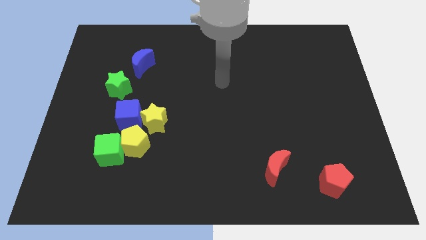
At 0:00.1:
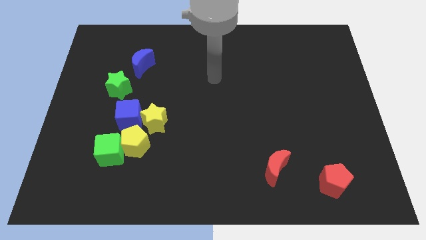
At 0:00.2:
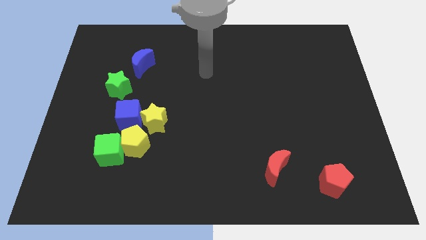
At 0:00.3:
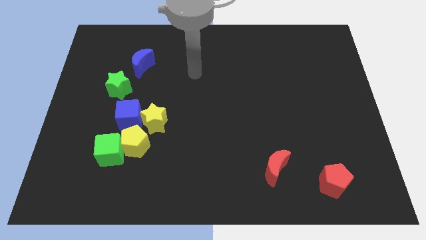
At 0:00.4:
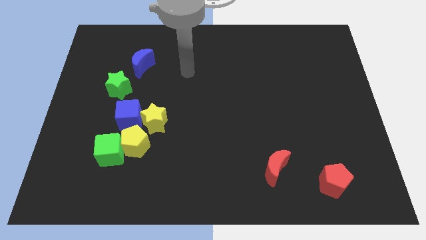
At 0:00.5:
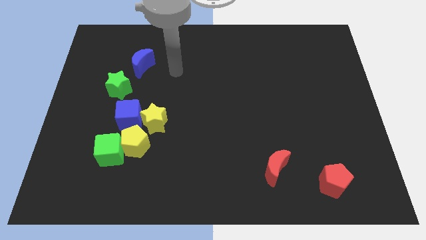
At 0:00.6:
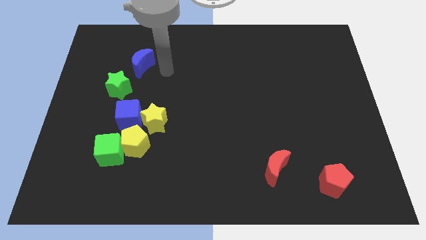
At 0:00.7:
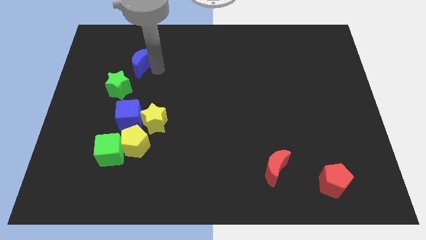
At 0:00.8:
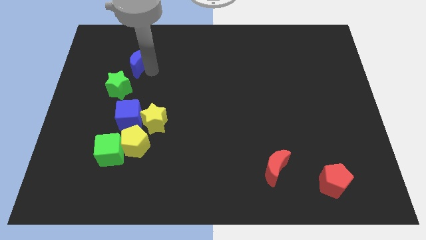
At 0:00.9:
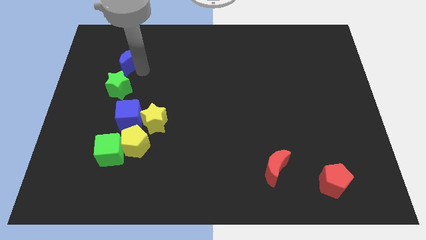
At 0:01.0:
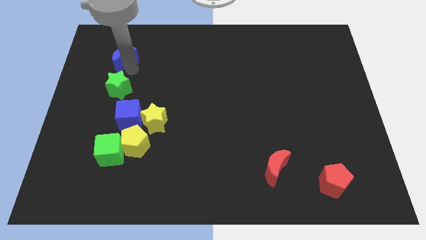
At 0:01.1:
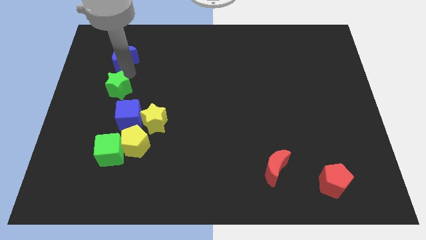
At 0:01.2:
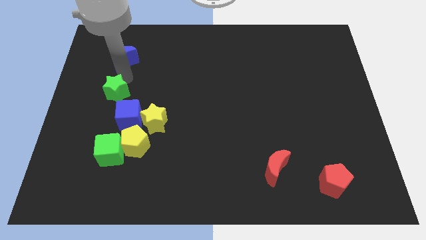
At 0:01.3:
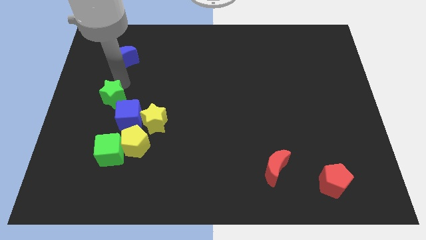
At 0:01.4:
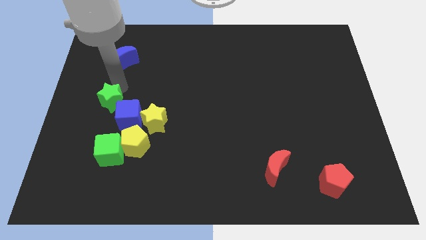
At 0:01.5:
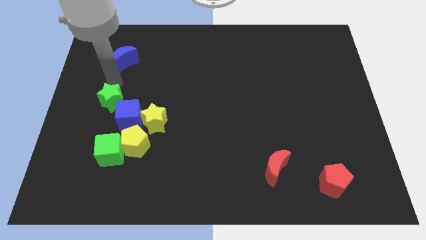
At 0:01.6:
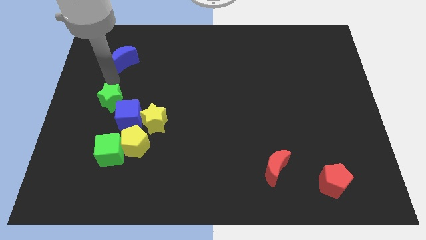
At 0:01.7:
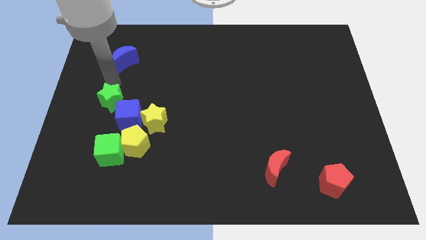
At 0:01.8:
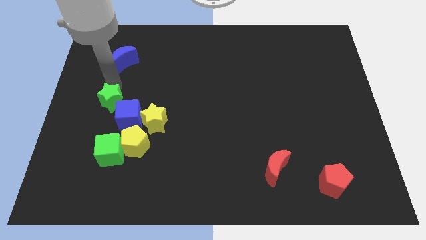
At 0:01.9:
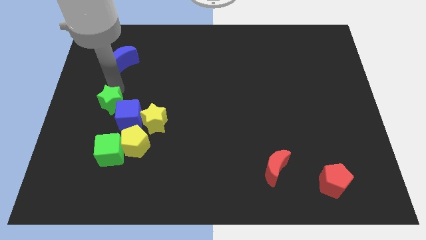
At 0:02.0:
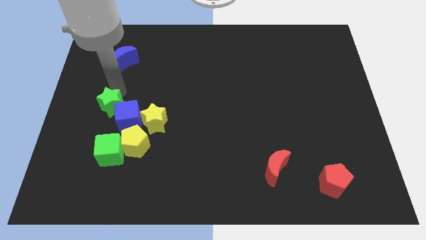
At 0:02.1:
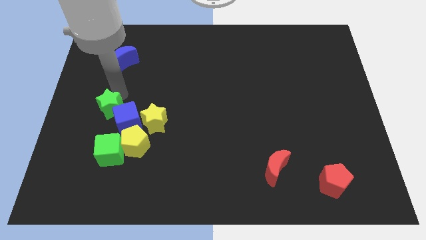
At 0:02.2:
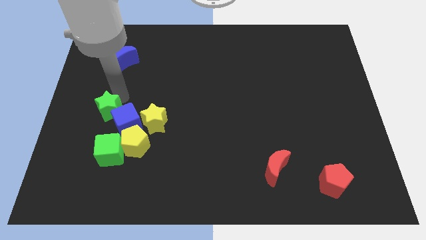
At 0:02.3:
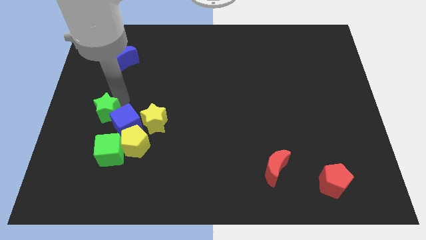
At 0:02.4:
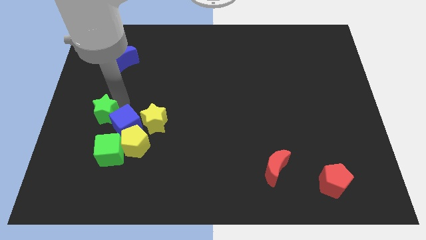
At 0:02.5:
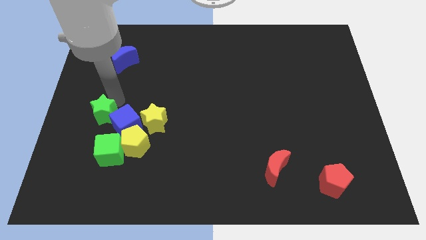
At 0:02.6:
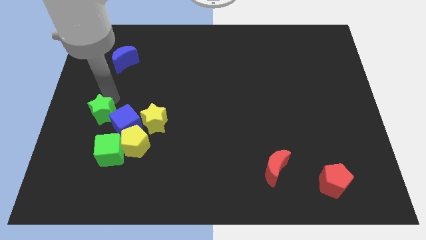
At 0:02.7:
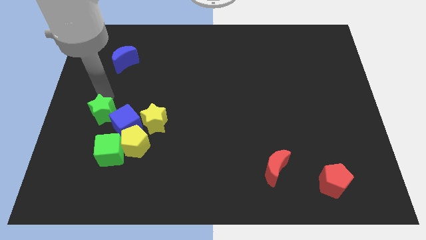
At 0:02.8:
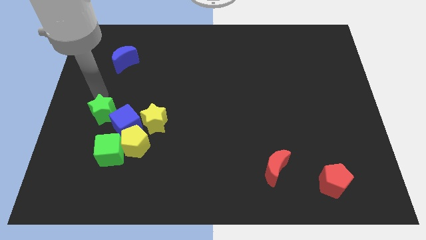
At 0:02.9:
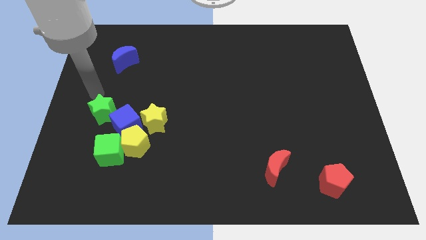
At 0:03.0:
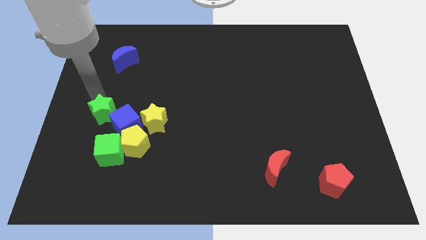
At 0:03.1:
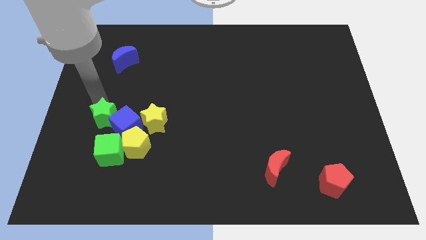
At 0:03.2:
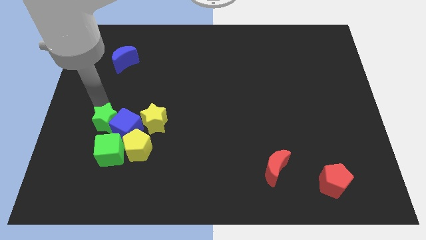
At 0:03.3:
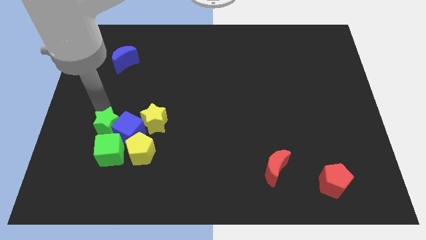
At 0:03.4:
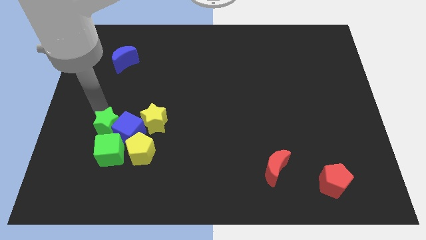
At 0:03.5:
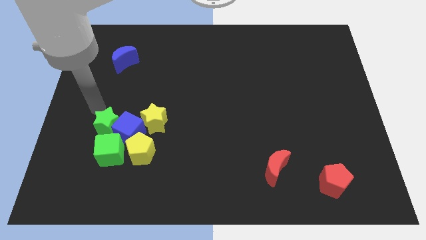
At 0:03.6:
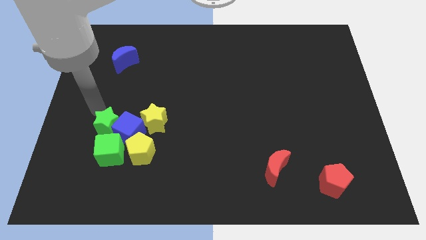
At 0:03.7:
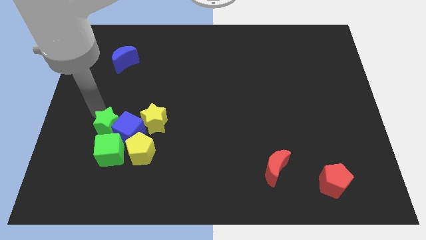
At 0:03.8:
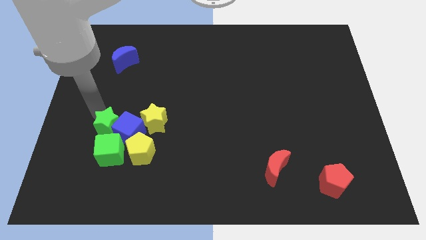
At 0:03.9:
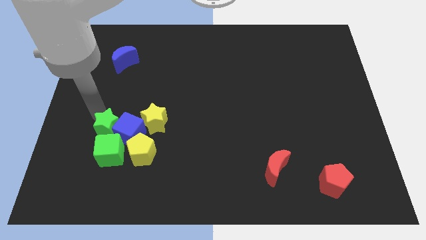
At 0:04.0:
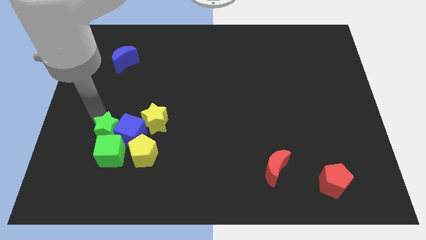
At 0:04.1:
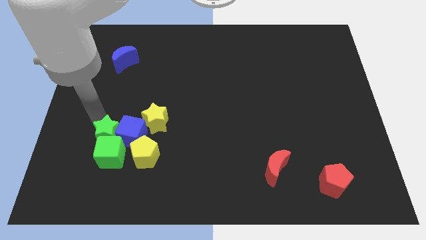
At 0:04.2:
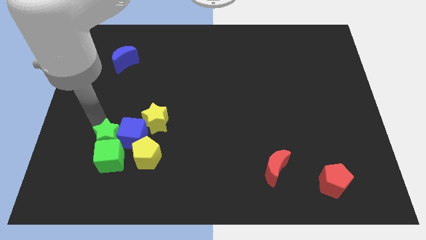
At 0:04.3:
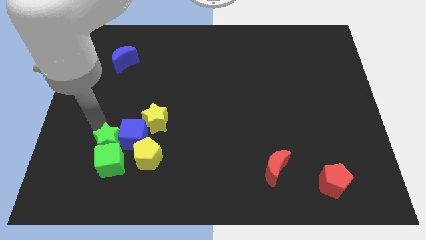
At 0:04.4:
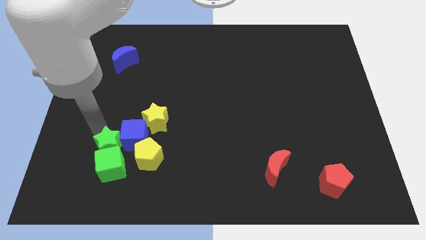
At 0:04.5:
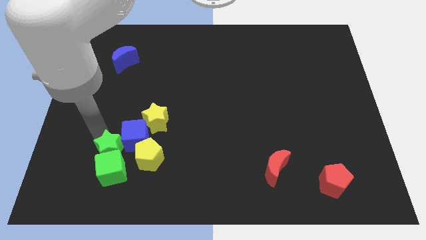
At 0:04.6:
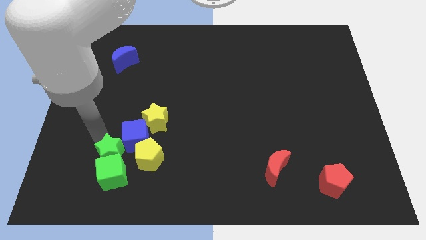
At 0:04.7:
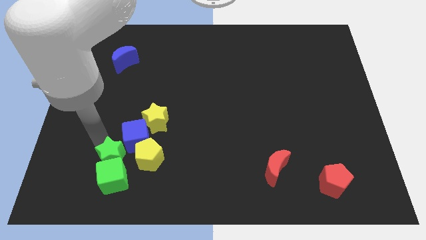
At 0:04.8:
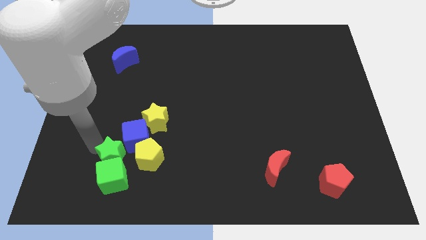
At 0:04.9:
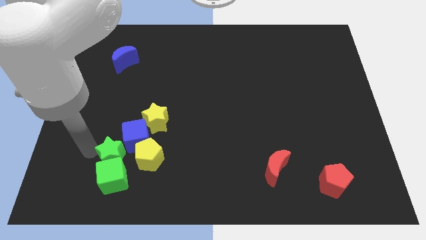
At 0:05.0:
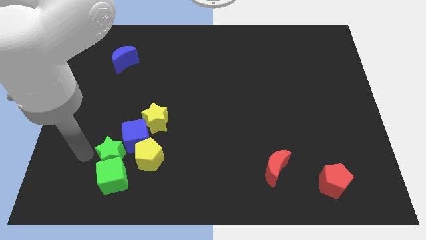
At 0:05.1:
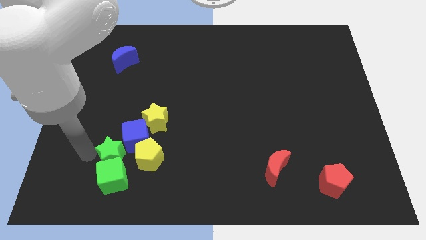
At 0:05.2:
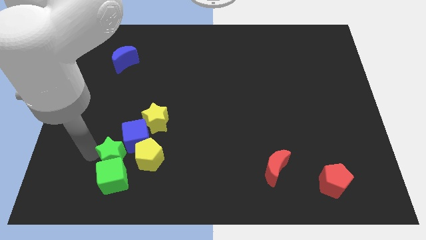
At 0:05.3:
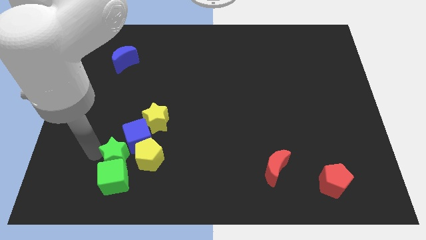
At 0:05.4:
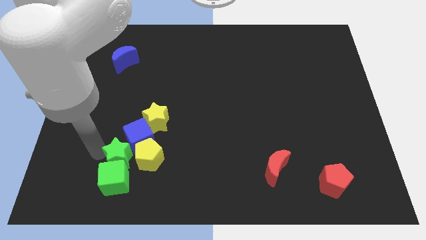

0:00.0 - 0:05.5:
slide the green star to the yellow pentagon

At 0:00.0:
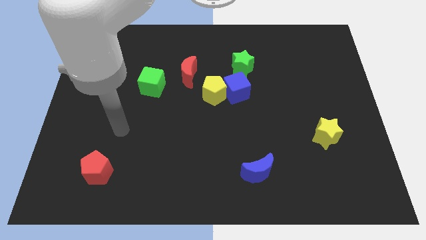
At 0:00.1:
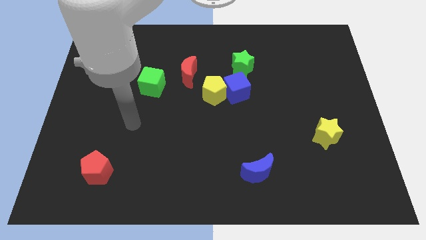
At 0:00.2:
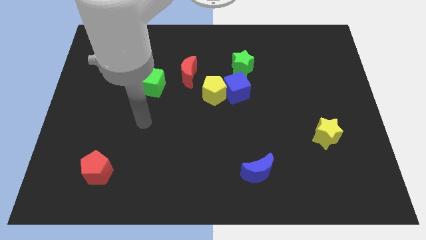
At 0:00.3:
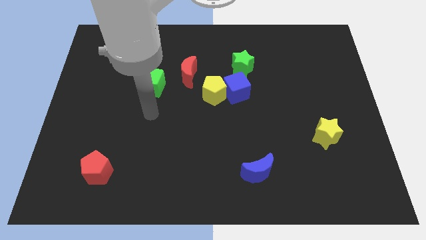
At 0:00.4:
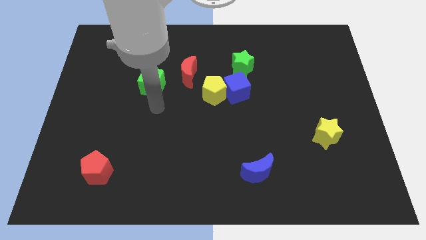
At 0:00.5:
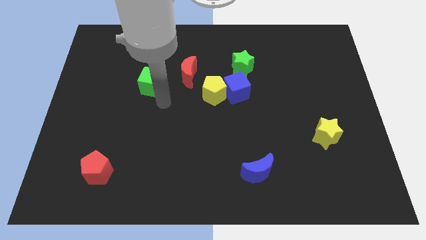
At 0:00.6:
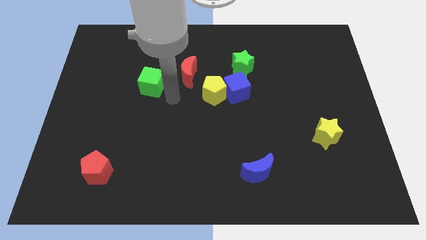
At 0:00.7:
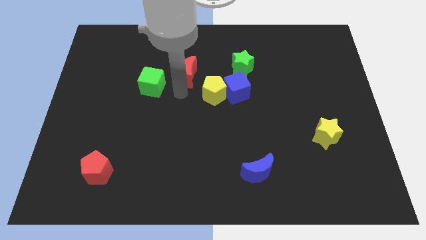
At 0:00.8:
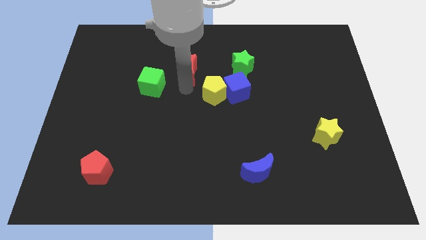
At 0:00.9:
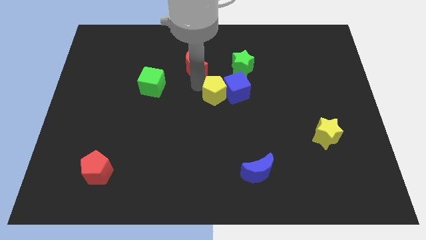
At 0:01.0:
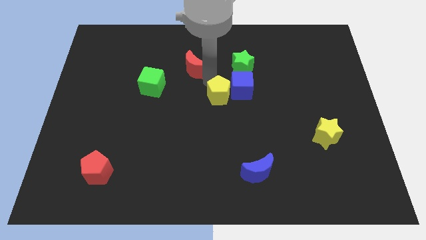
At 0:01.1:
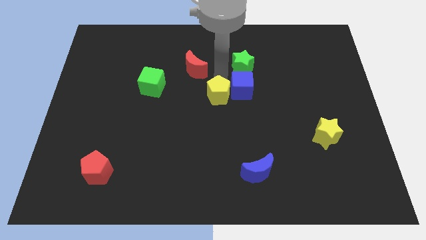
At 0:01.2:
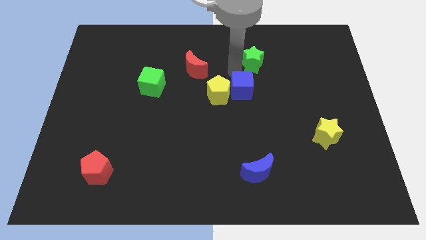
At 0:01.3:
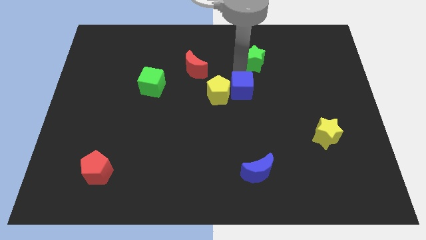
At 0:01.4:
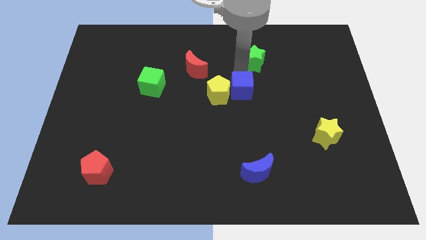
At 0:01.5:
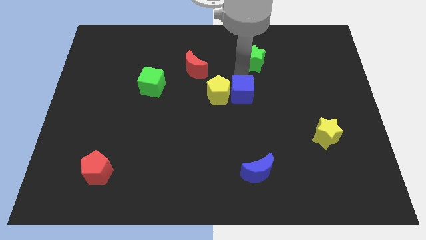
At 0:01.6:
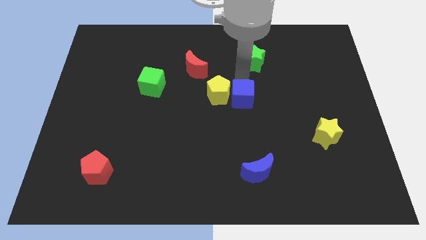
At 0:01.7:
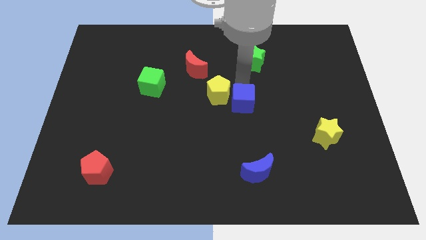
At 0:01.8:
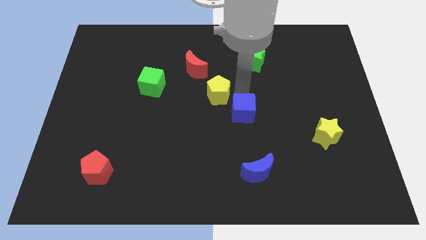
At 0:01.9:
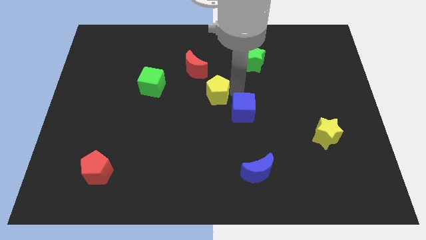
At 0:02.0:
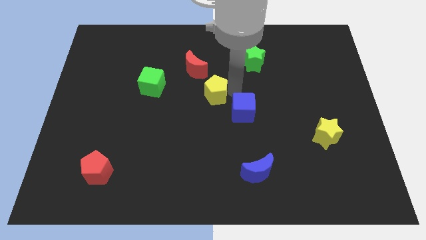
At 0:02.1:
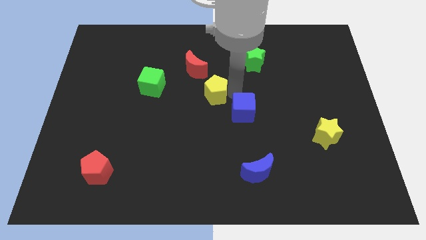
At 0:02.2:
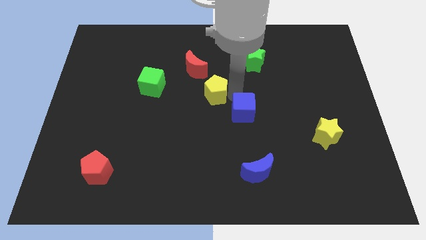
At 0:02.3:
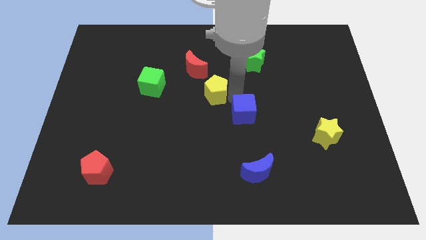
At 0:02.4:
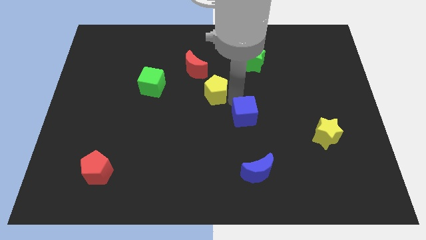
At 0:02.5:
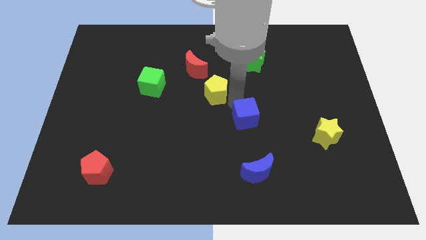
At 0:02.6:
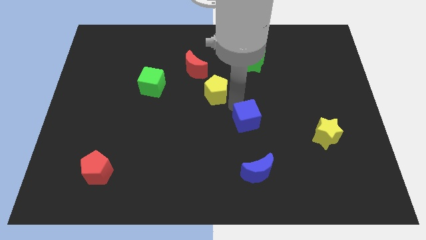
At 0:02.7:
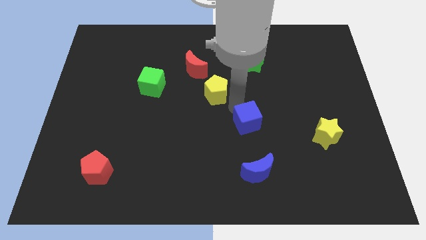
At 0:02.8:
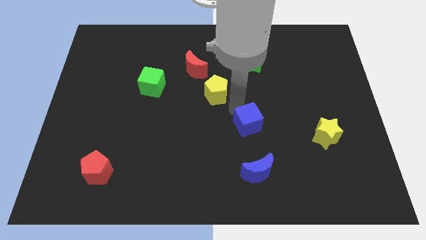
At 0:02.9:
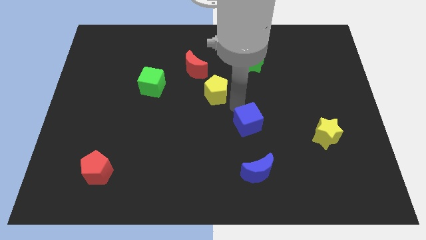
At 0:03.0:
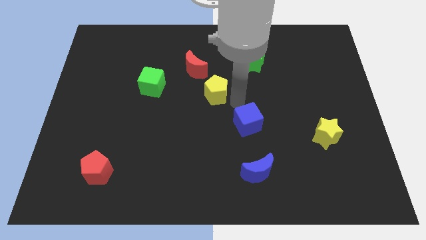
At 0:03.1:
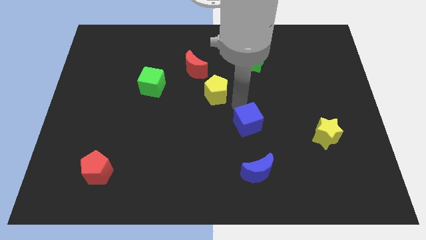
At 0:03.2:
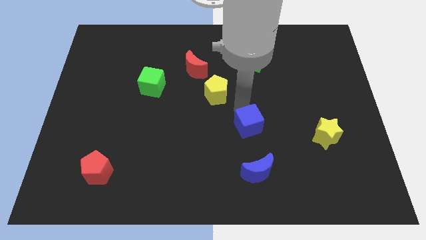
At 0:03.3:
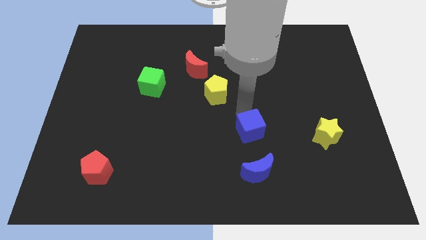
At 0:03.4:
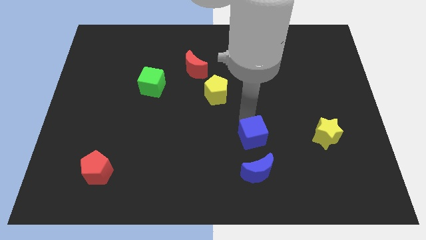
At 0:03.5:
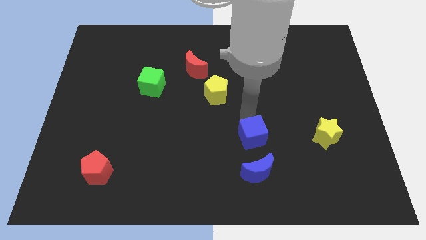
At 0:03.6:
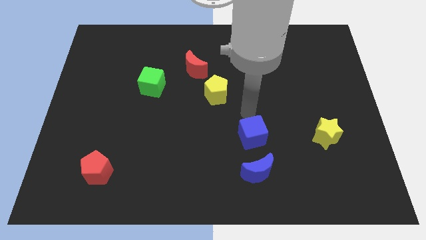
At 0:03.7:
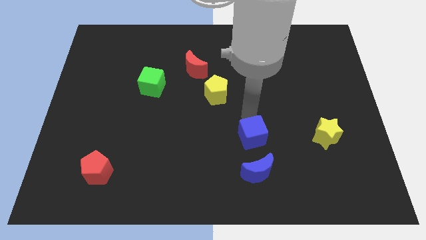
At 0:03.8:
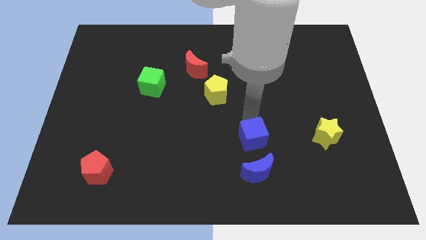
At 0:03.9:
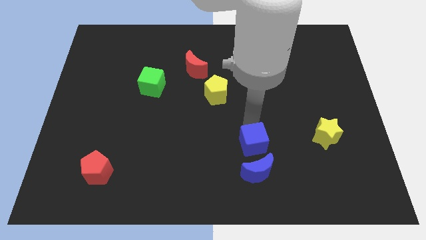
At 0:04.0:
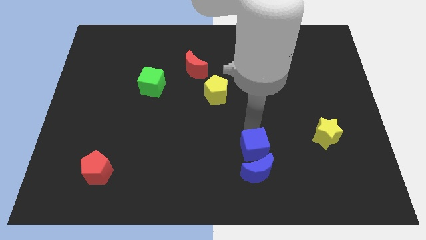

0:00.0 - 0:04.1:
move the blue cube next to the blue moon
